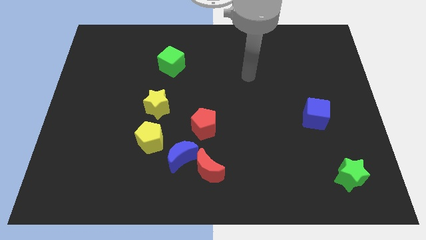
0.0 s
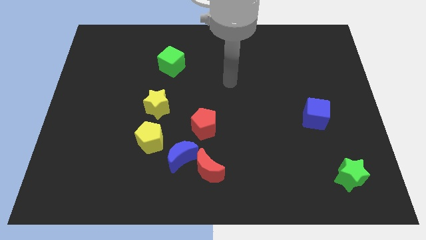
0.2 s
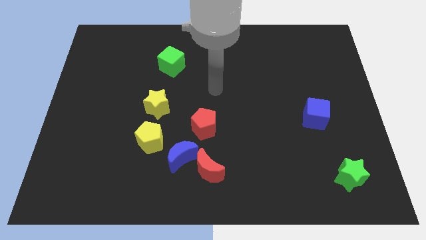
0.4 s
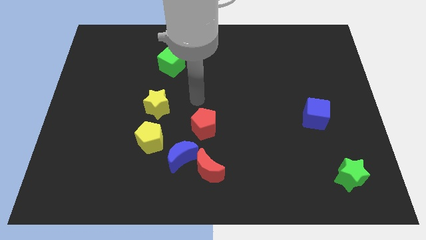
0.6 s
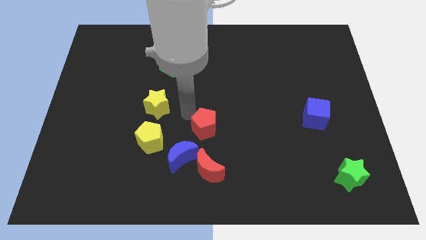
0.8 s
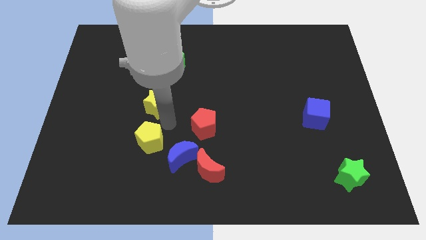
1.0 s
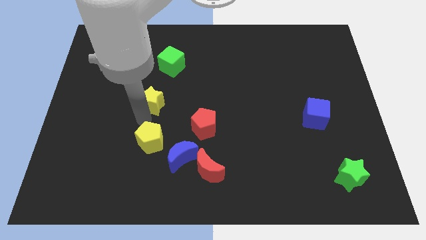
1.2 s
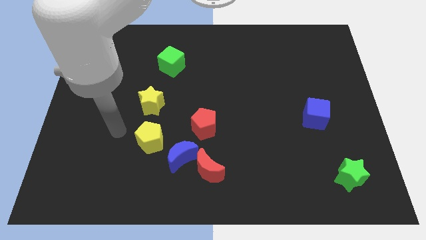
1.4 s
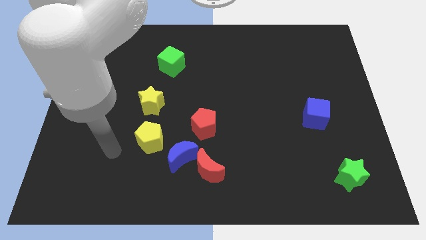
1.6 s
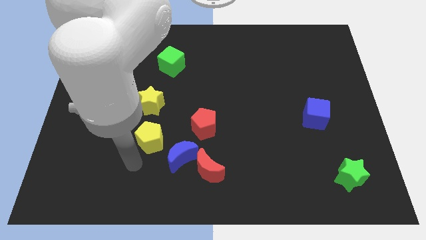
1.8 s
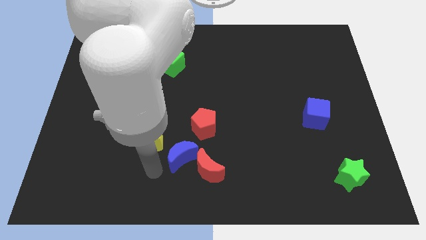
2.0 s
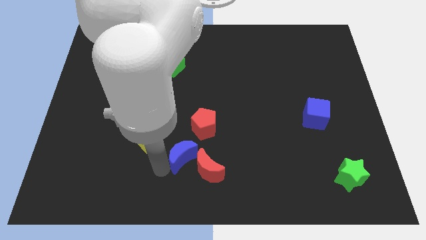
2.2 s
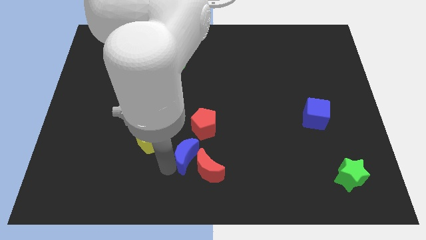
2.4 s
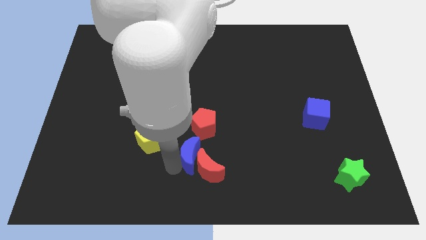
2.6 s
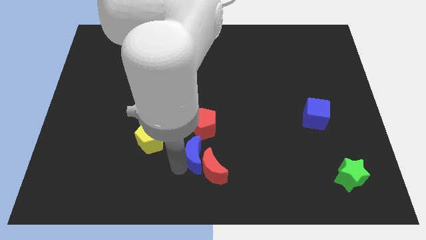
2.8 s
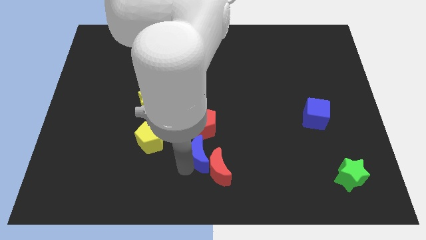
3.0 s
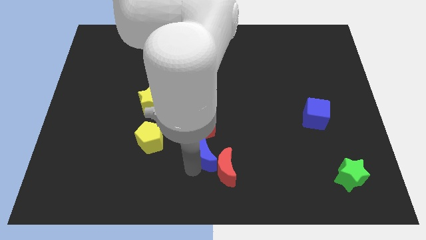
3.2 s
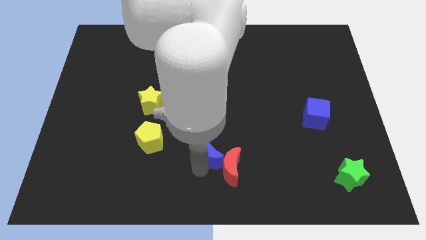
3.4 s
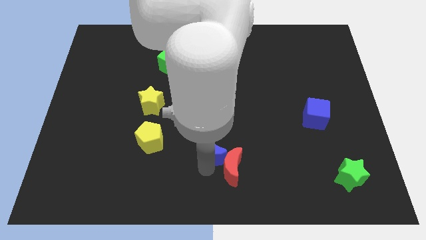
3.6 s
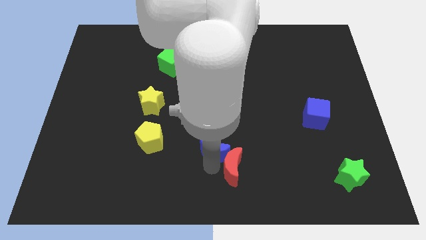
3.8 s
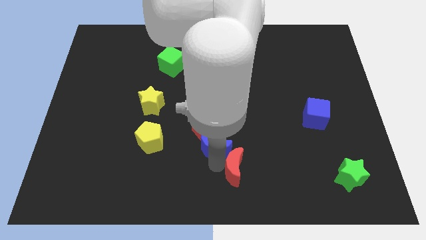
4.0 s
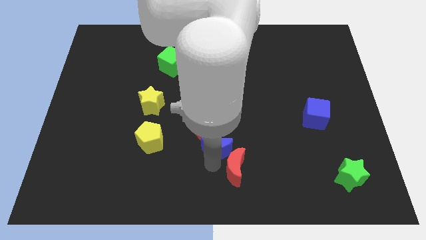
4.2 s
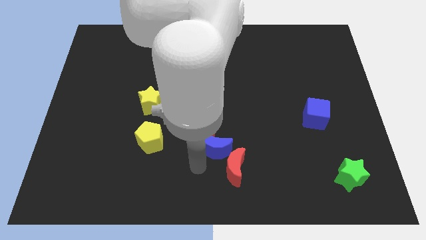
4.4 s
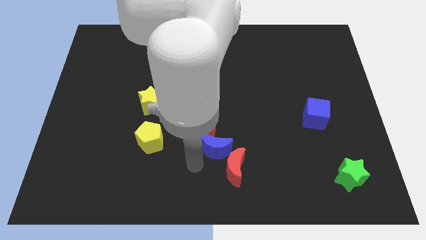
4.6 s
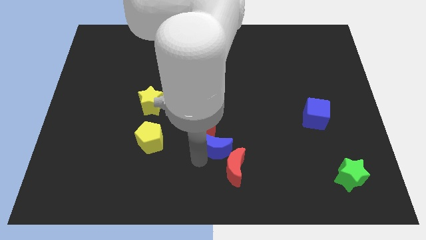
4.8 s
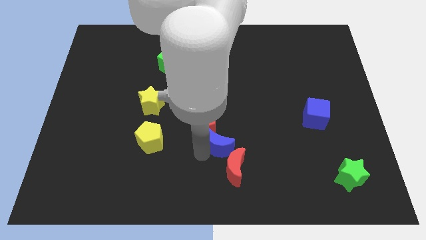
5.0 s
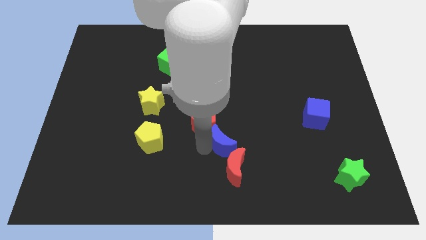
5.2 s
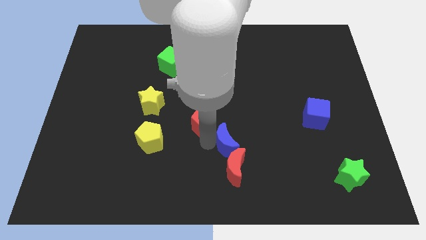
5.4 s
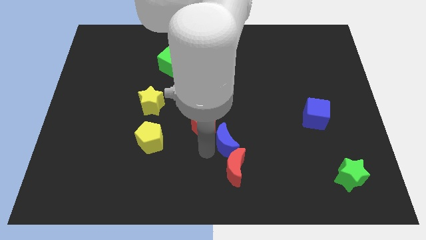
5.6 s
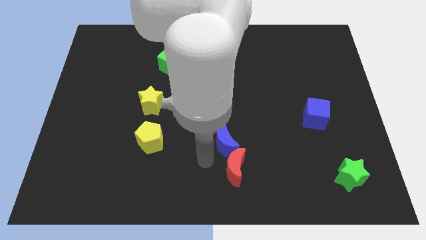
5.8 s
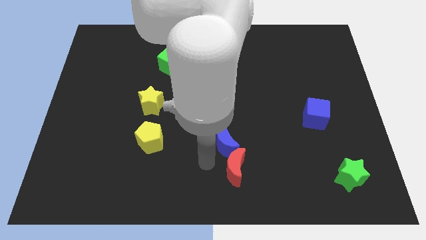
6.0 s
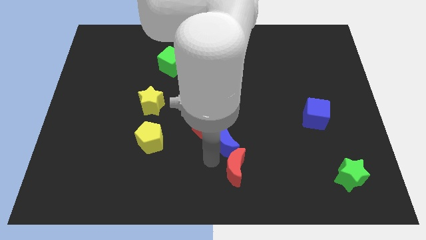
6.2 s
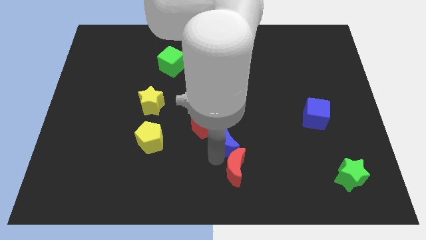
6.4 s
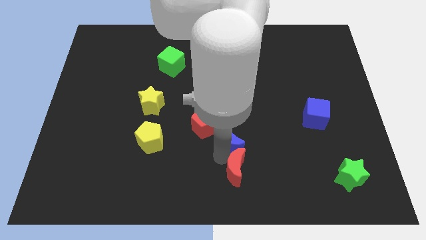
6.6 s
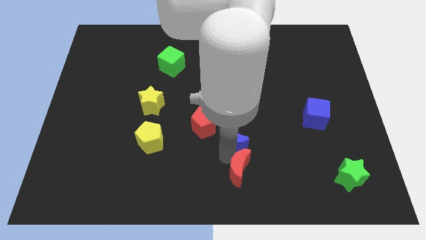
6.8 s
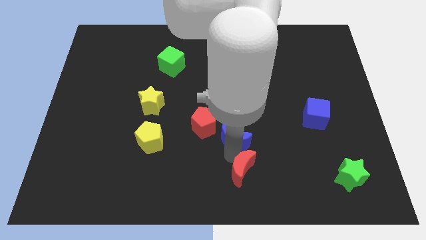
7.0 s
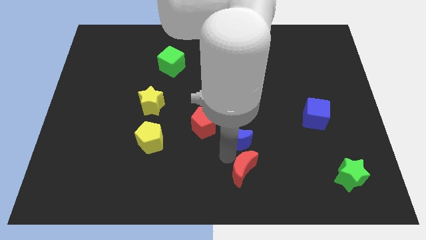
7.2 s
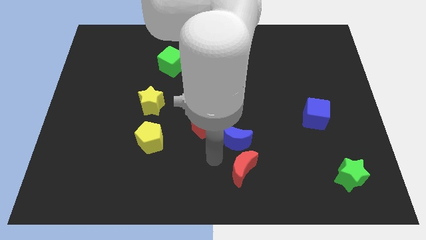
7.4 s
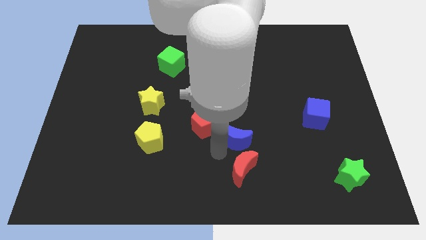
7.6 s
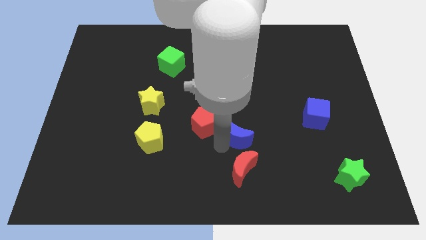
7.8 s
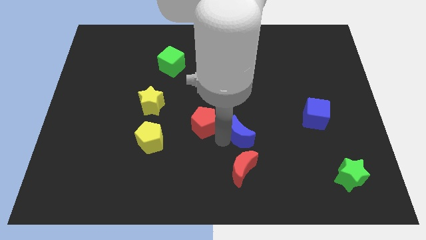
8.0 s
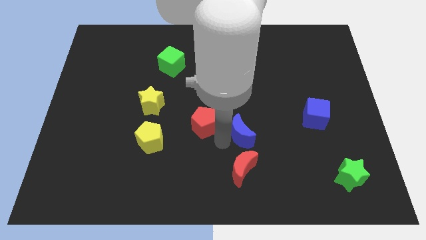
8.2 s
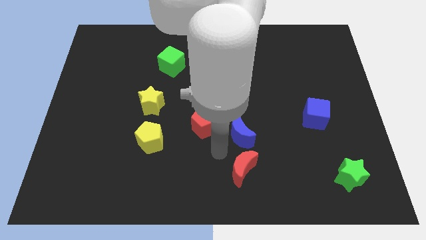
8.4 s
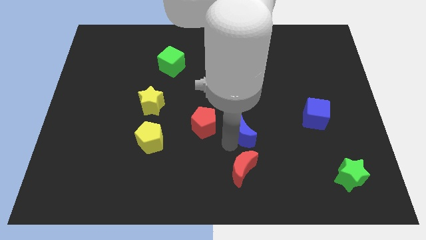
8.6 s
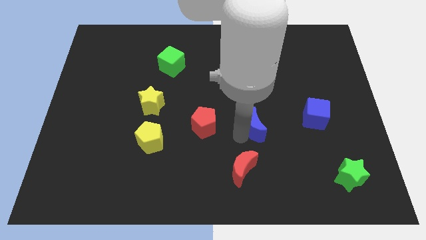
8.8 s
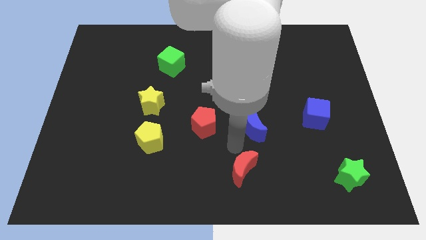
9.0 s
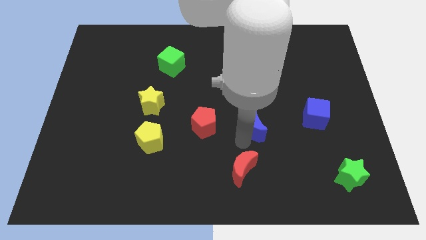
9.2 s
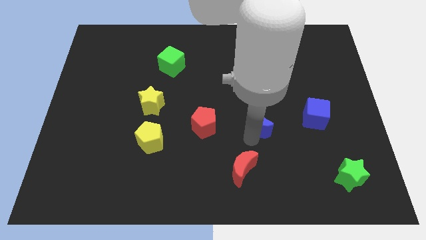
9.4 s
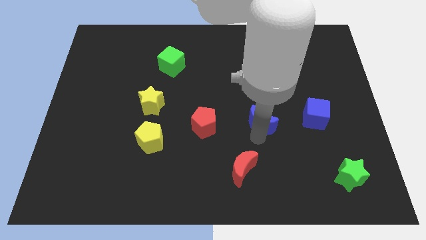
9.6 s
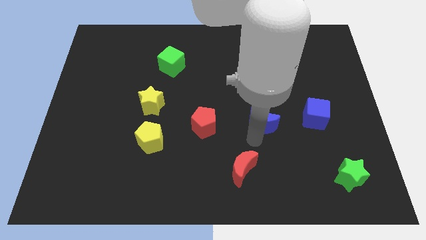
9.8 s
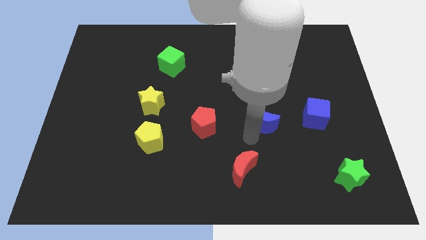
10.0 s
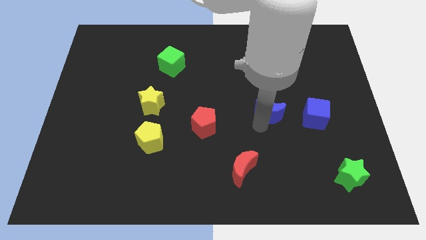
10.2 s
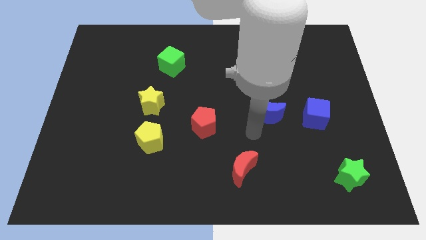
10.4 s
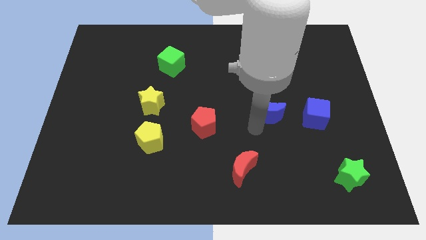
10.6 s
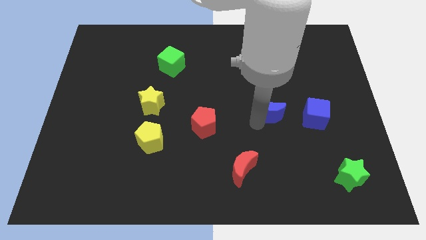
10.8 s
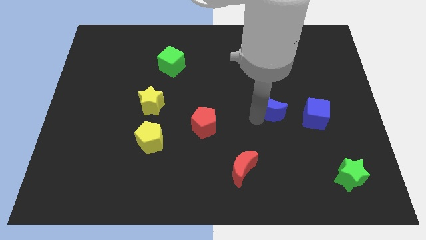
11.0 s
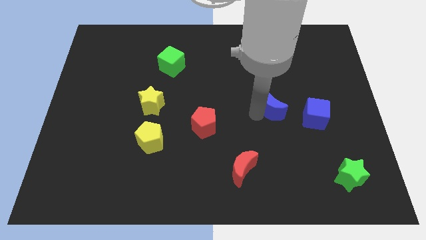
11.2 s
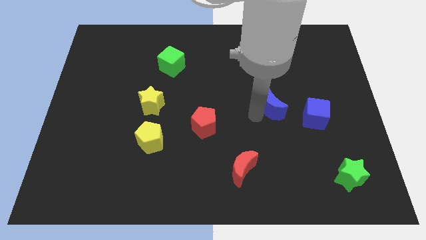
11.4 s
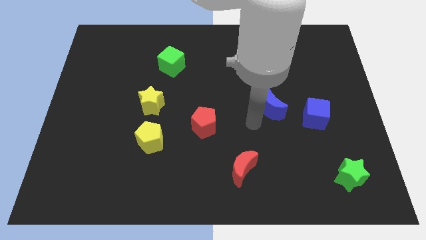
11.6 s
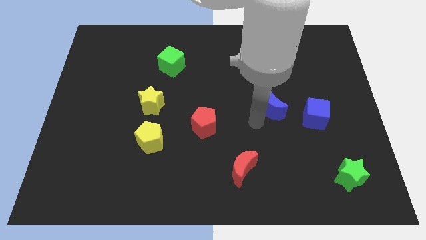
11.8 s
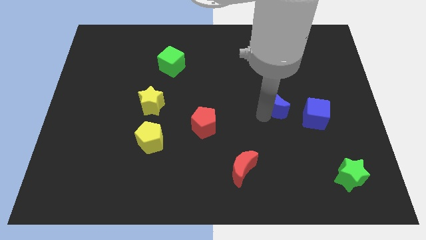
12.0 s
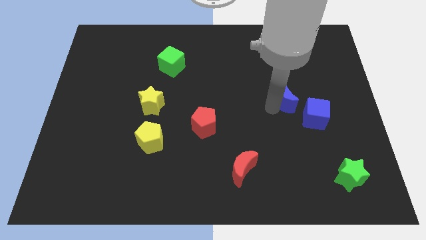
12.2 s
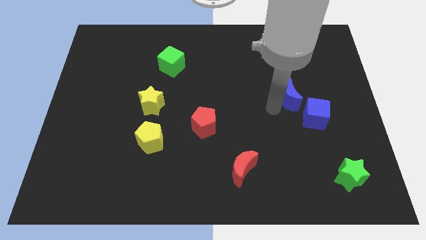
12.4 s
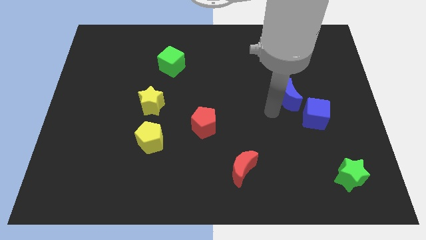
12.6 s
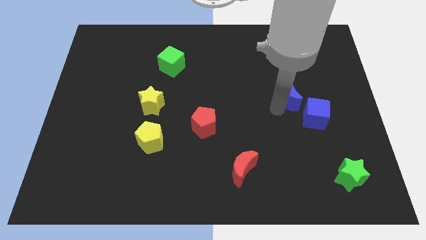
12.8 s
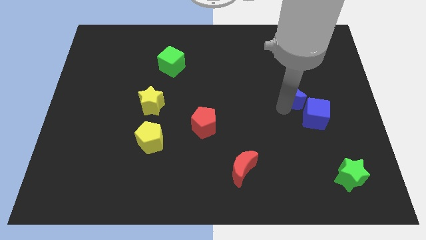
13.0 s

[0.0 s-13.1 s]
move the blue moon above the blue cube

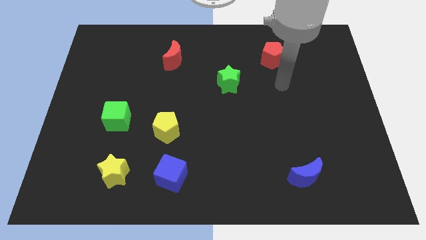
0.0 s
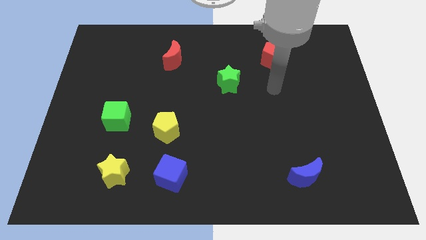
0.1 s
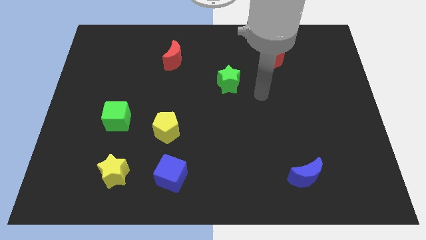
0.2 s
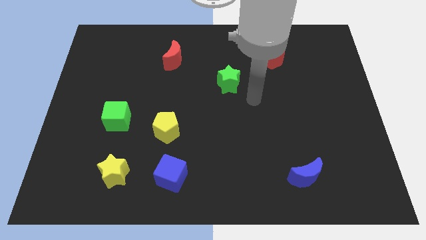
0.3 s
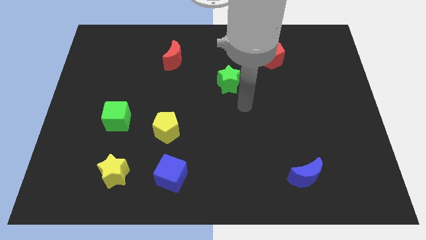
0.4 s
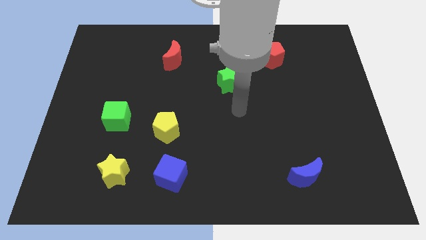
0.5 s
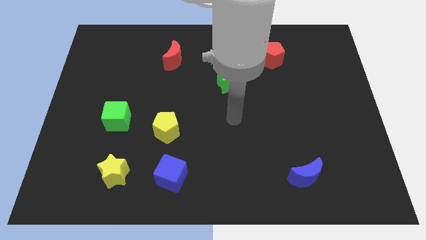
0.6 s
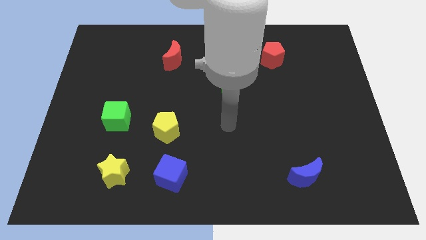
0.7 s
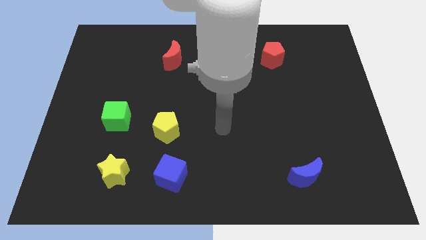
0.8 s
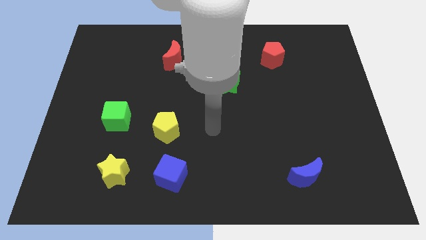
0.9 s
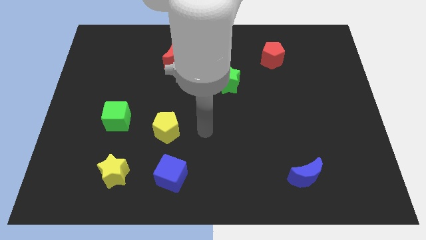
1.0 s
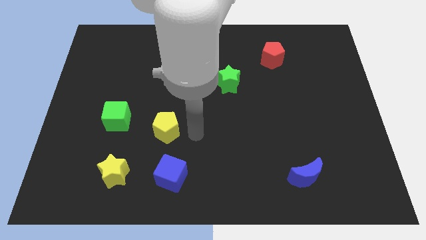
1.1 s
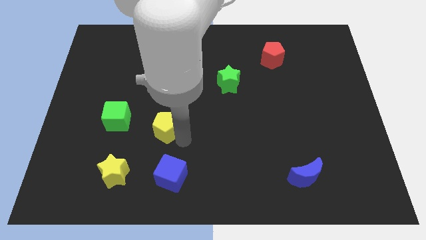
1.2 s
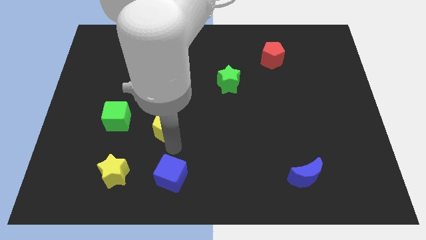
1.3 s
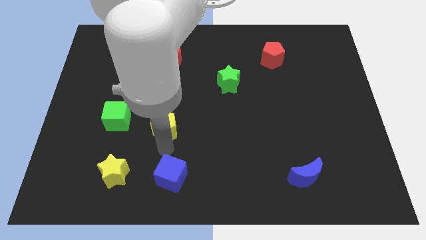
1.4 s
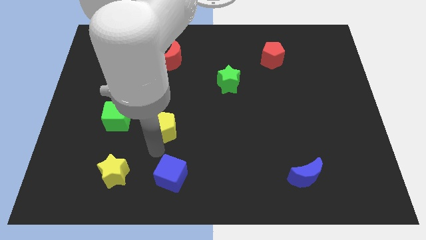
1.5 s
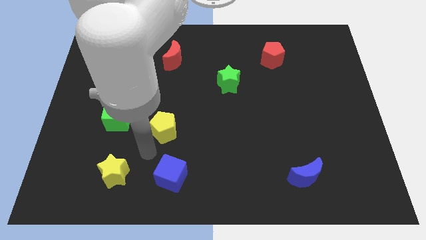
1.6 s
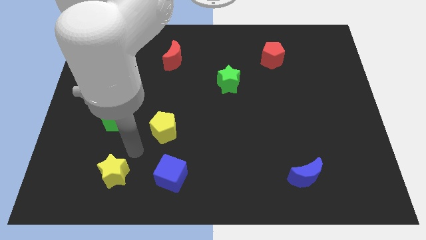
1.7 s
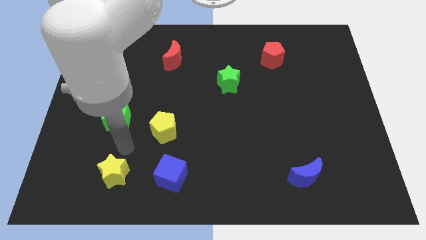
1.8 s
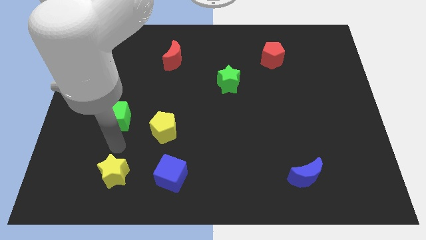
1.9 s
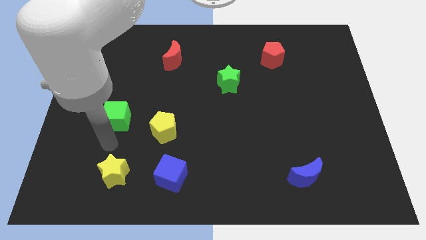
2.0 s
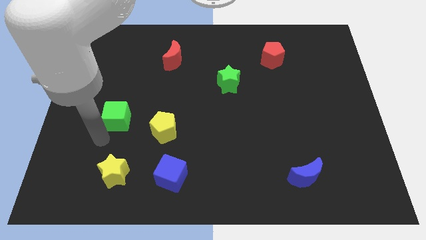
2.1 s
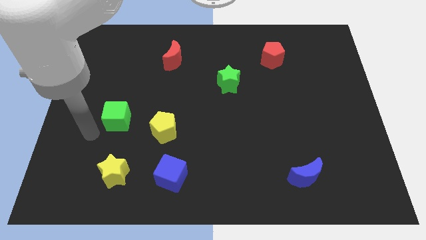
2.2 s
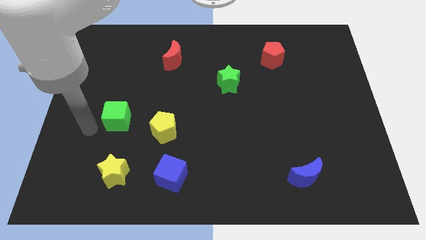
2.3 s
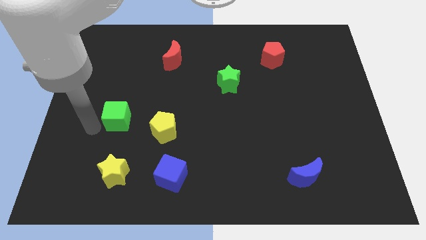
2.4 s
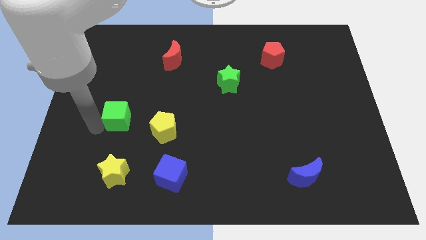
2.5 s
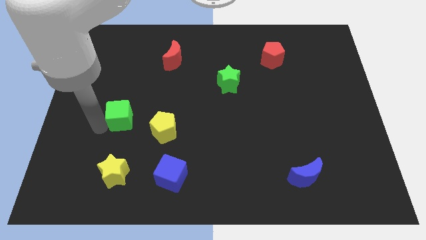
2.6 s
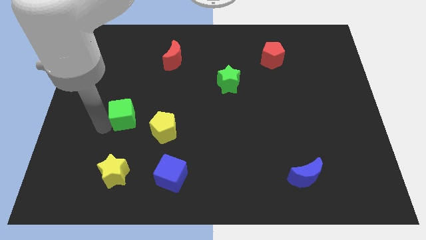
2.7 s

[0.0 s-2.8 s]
slide the green cube to the top left of the yellow pentagon
